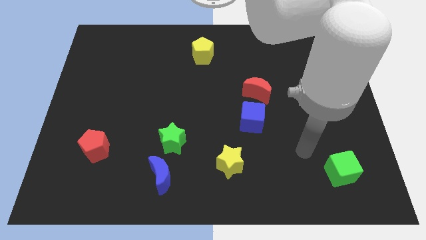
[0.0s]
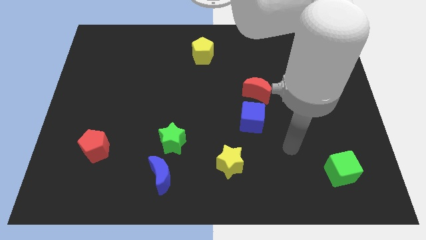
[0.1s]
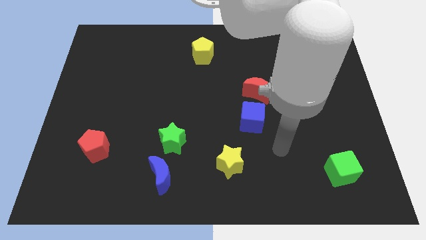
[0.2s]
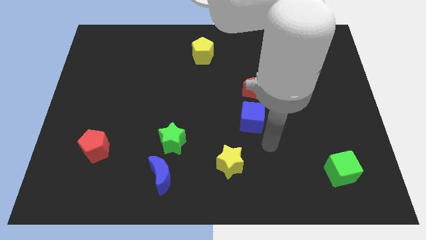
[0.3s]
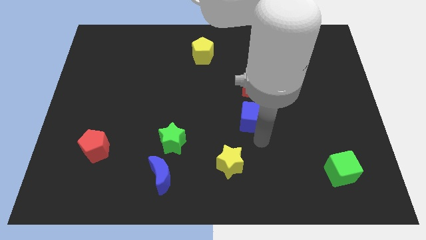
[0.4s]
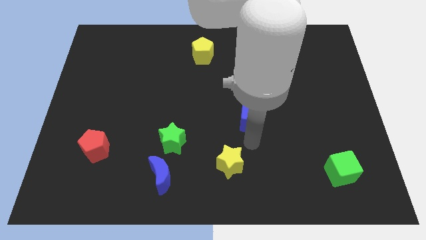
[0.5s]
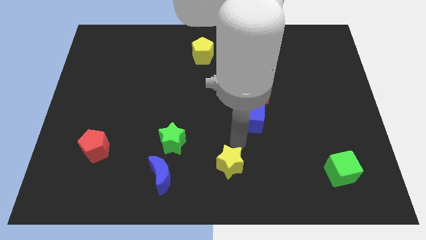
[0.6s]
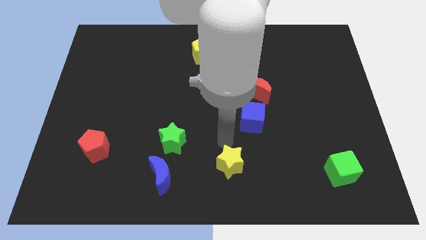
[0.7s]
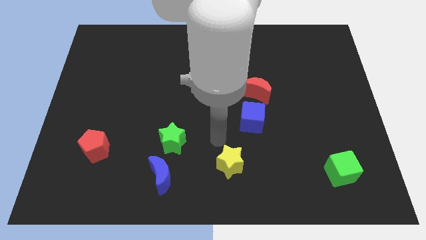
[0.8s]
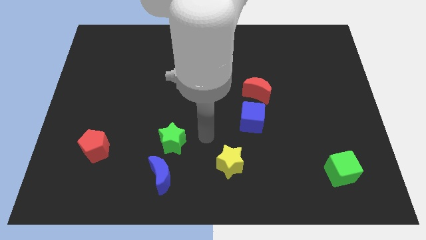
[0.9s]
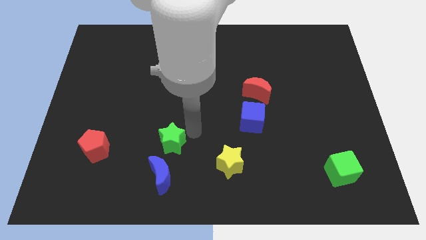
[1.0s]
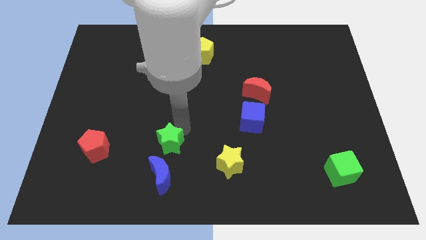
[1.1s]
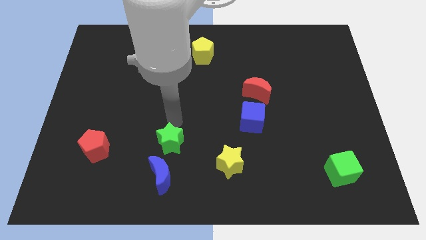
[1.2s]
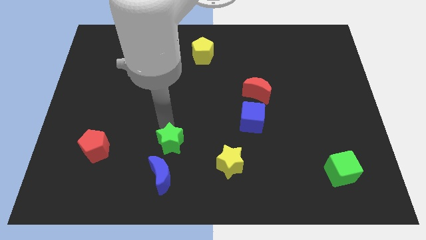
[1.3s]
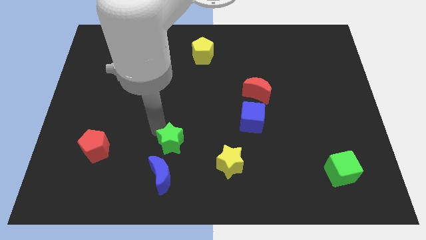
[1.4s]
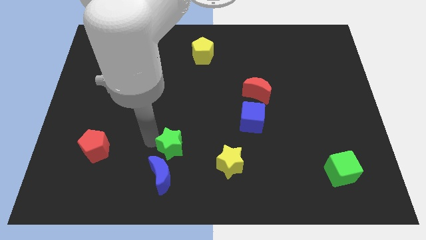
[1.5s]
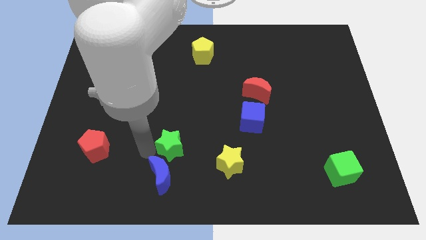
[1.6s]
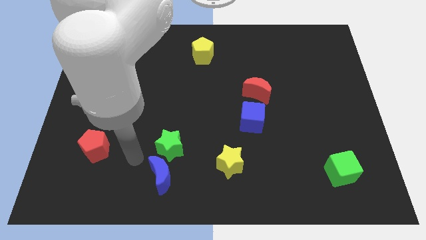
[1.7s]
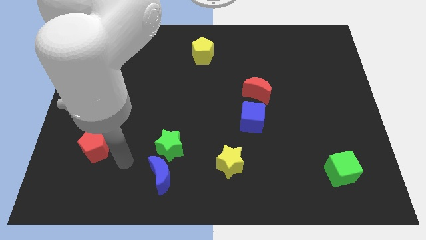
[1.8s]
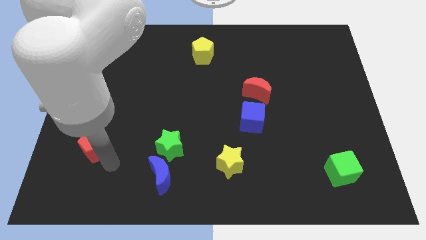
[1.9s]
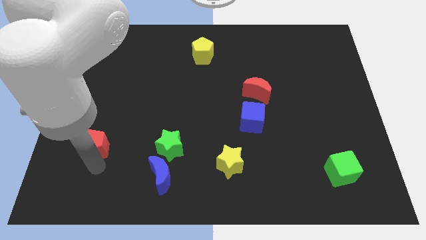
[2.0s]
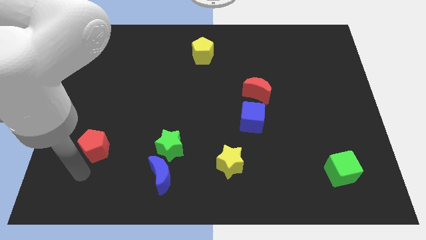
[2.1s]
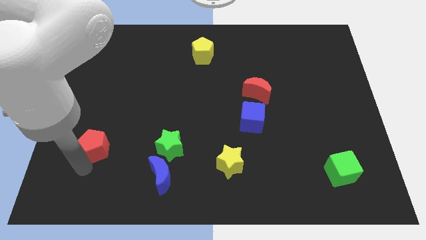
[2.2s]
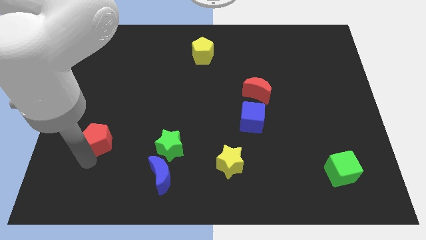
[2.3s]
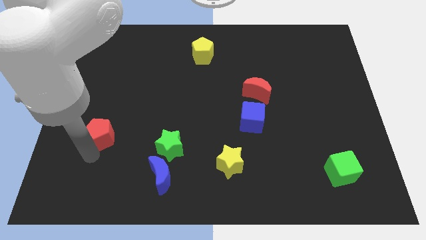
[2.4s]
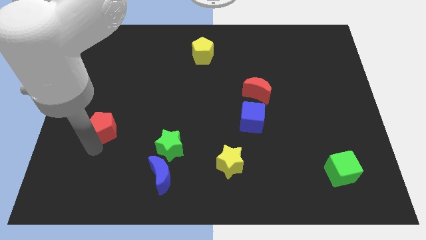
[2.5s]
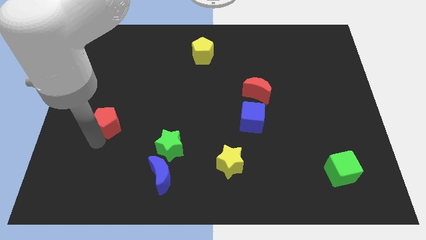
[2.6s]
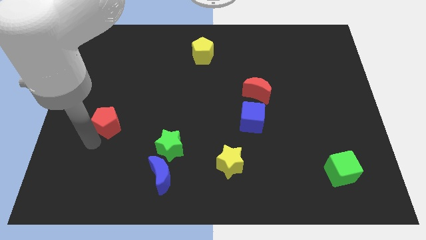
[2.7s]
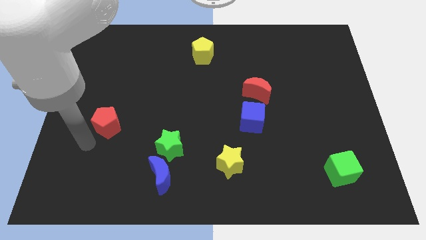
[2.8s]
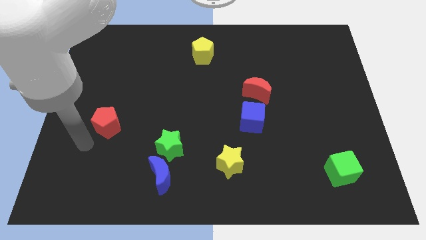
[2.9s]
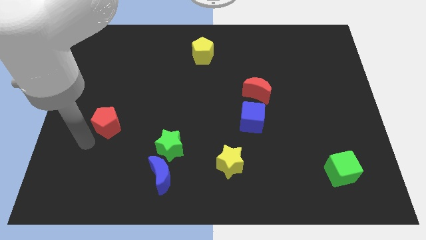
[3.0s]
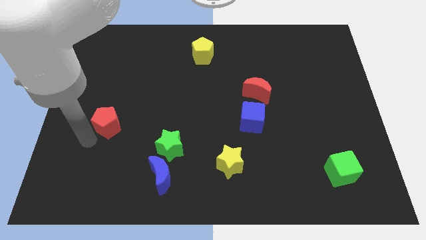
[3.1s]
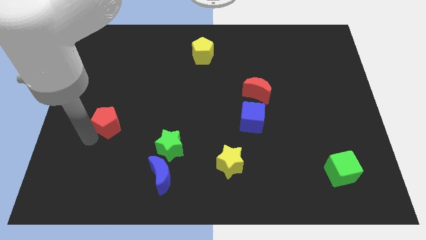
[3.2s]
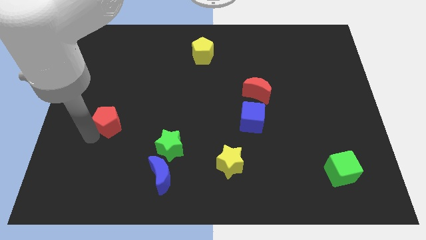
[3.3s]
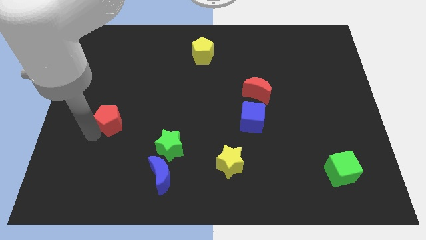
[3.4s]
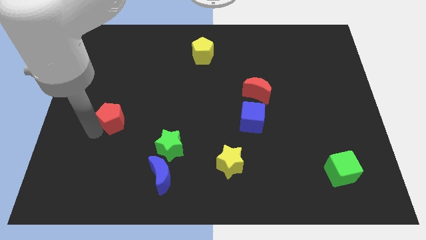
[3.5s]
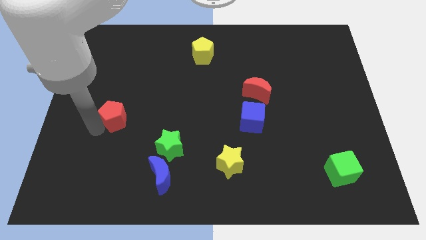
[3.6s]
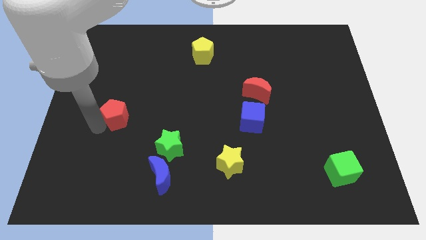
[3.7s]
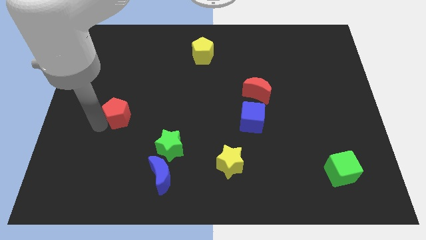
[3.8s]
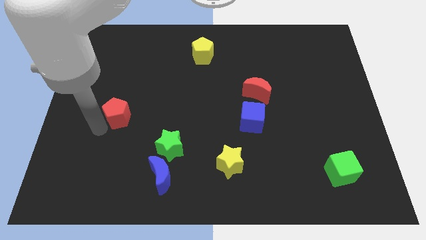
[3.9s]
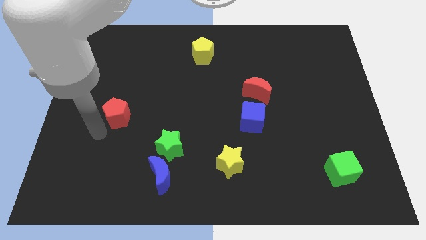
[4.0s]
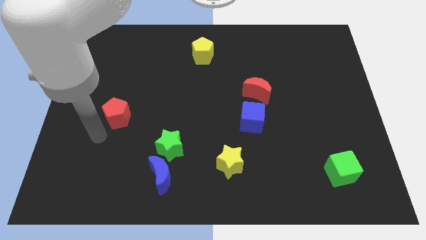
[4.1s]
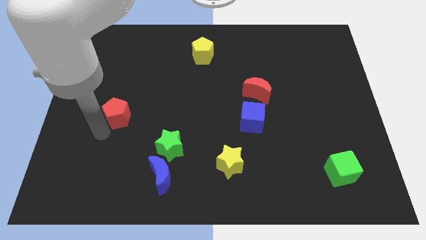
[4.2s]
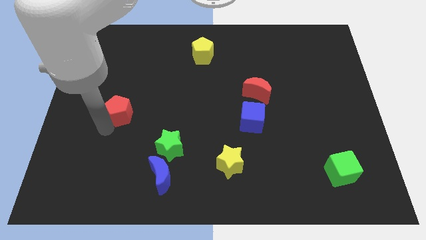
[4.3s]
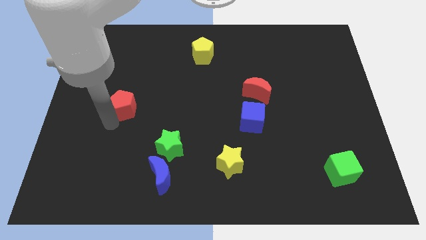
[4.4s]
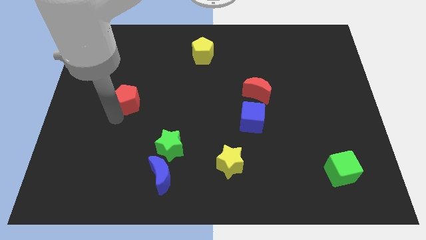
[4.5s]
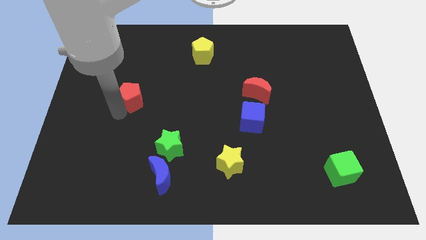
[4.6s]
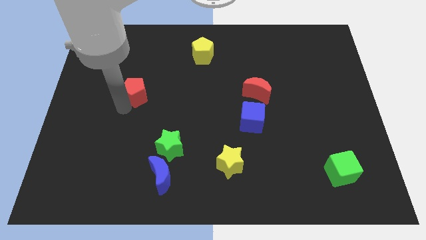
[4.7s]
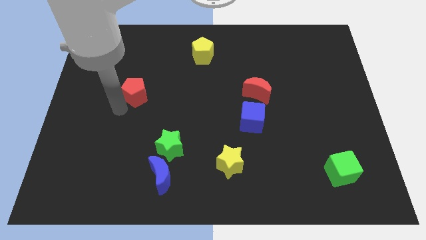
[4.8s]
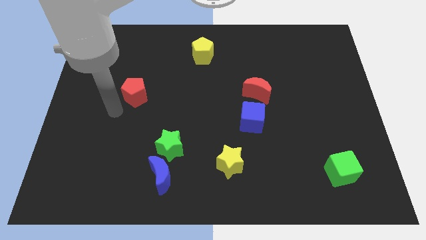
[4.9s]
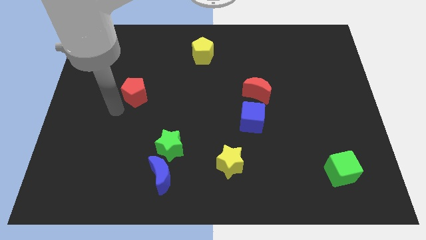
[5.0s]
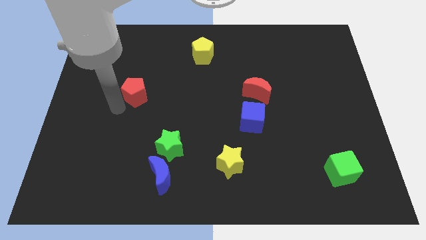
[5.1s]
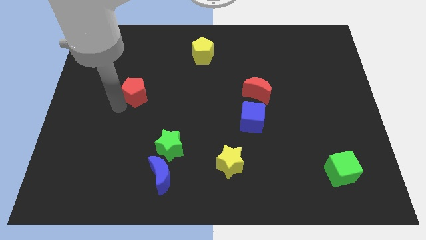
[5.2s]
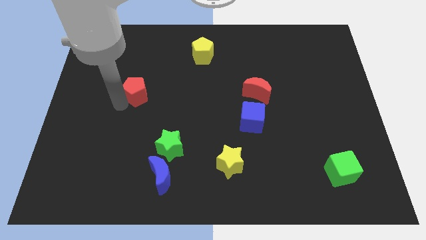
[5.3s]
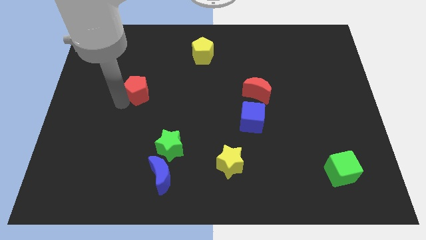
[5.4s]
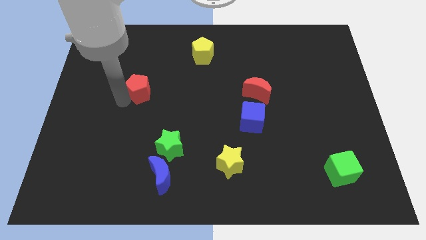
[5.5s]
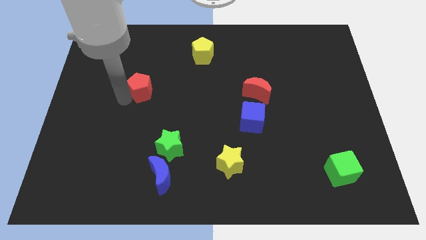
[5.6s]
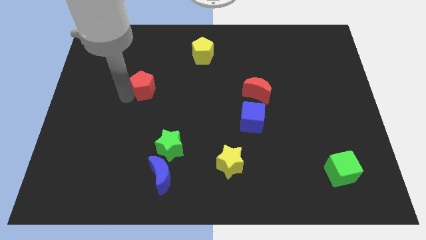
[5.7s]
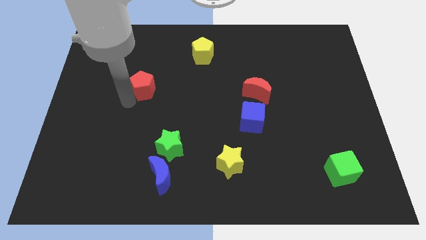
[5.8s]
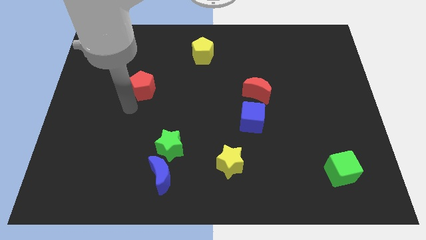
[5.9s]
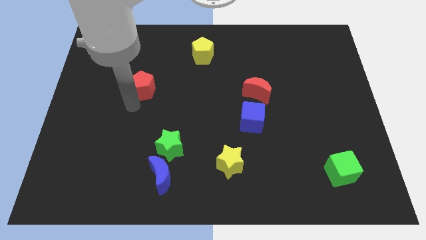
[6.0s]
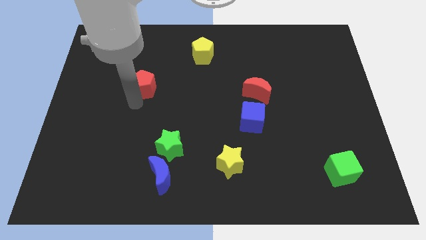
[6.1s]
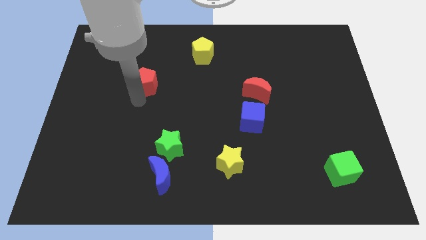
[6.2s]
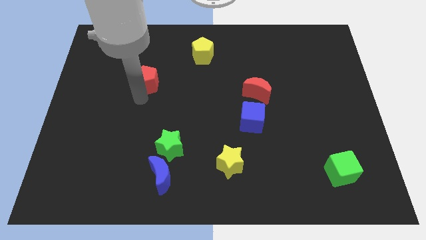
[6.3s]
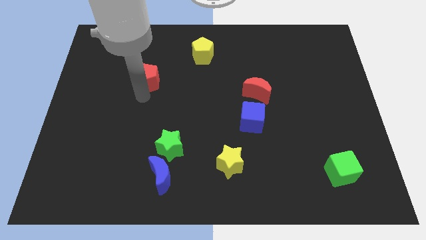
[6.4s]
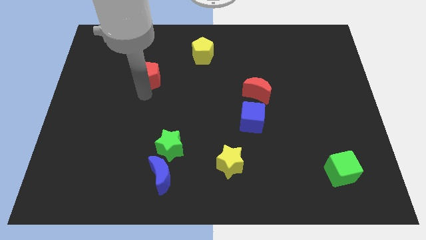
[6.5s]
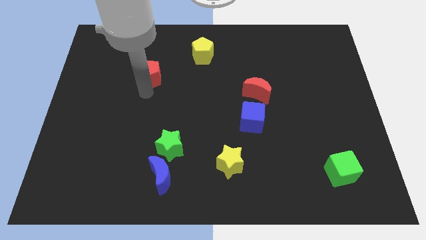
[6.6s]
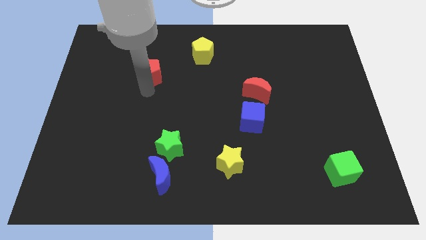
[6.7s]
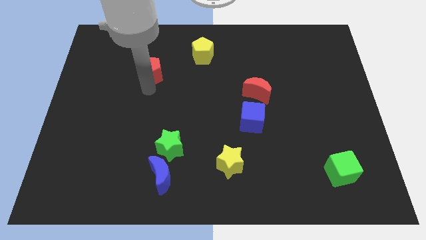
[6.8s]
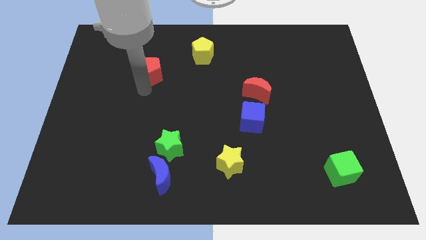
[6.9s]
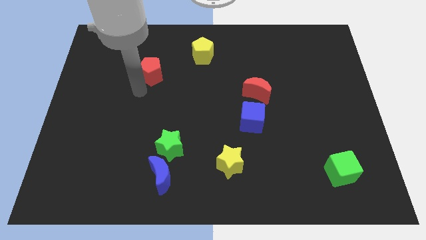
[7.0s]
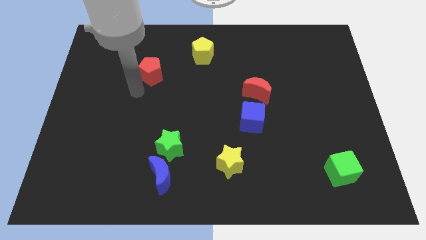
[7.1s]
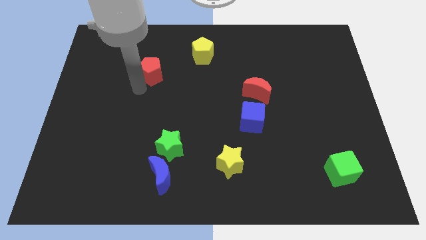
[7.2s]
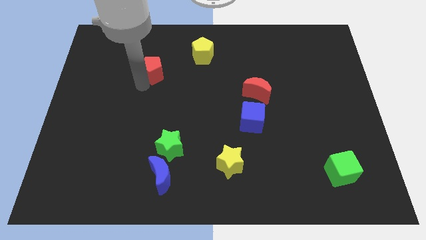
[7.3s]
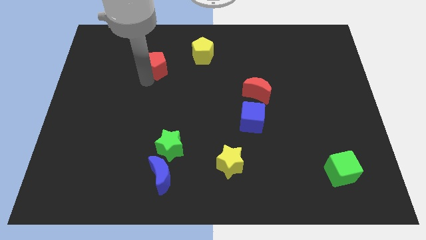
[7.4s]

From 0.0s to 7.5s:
slide the red pentagon to the left side of the yellow pentagon

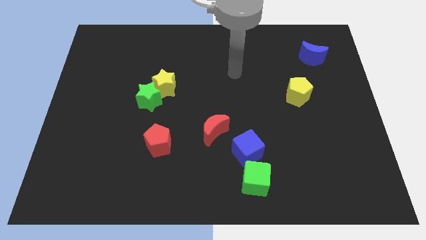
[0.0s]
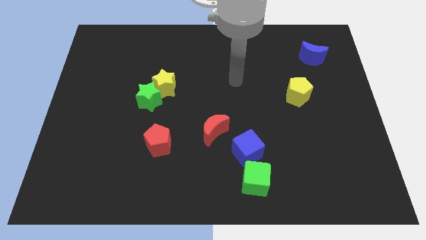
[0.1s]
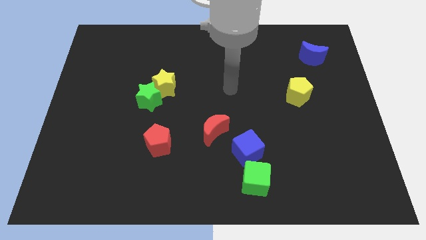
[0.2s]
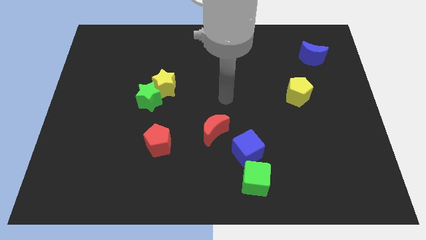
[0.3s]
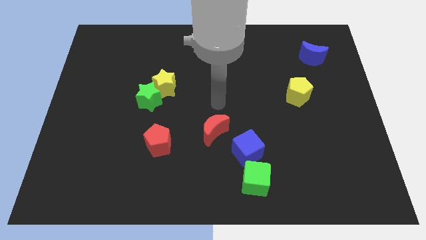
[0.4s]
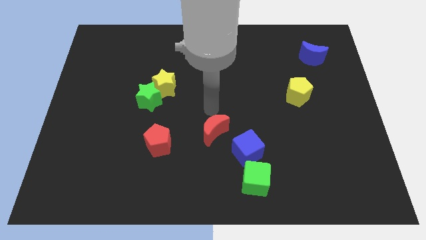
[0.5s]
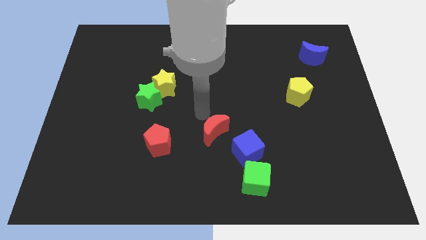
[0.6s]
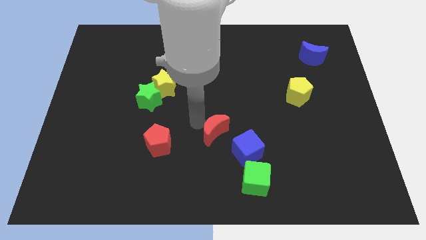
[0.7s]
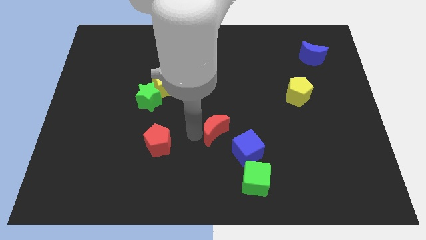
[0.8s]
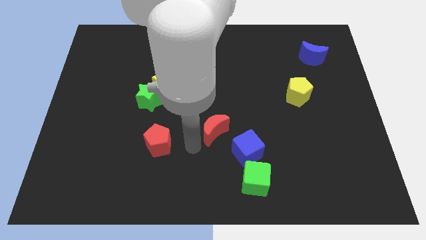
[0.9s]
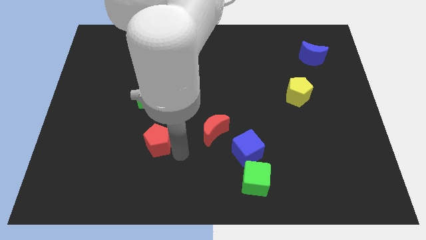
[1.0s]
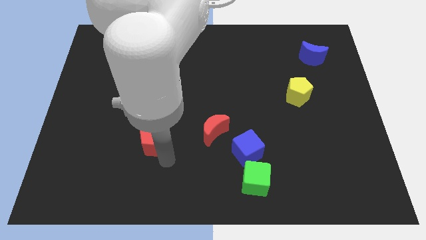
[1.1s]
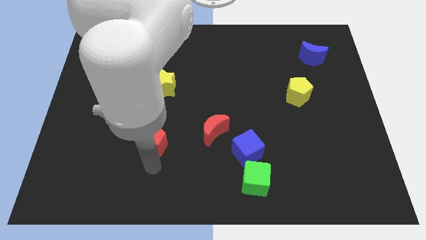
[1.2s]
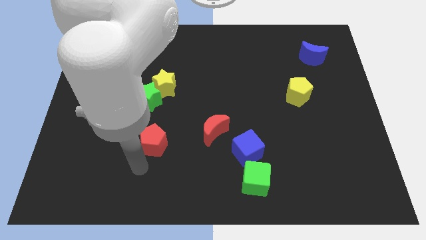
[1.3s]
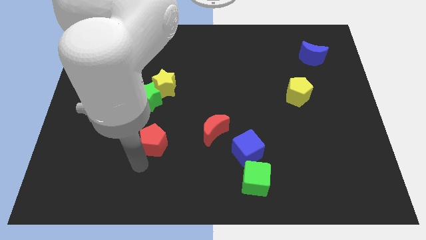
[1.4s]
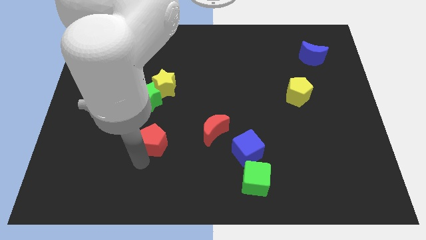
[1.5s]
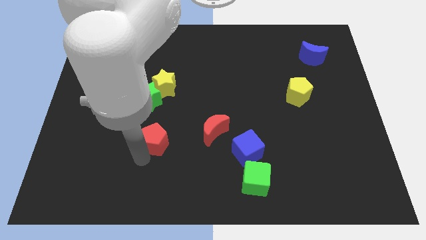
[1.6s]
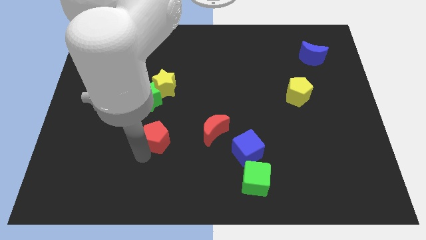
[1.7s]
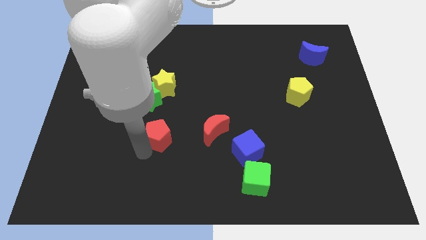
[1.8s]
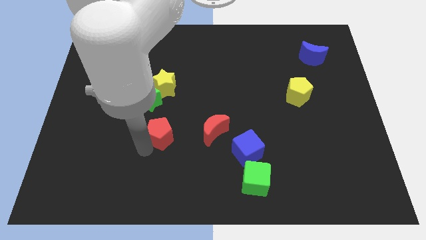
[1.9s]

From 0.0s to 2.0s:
move the red pentagon to the bottom right side of the green star
